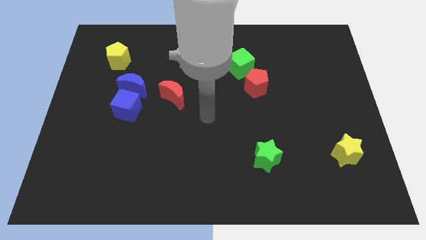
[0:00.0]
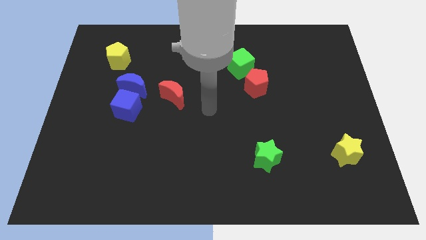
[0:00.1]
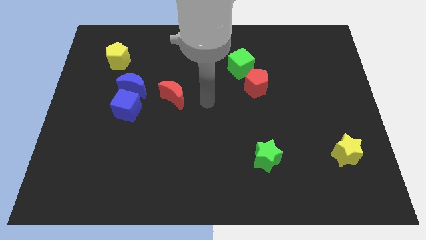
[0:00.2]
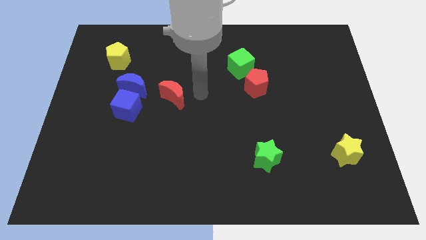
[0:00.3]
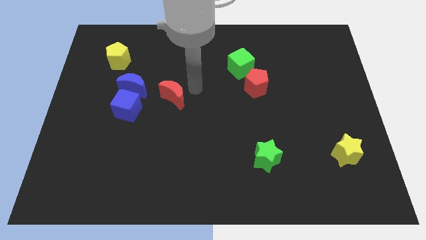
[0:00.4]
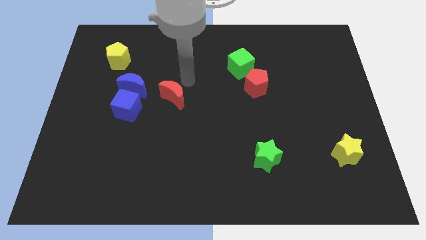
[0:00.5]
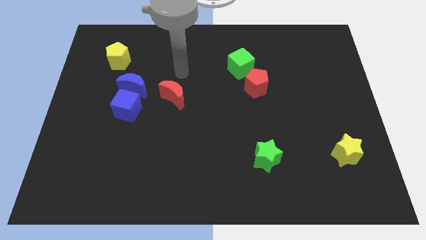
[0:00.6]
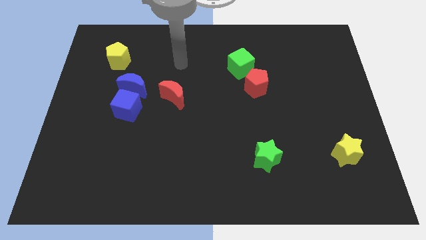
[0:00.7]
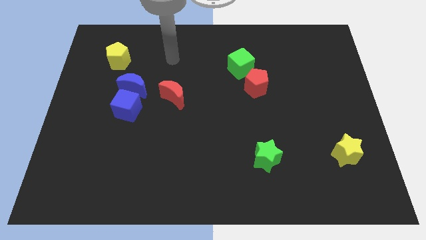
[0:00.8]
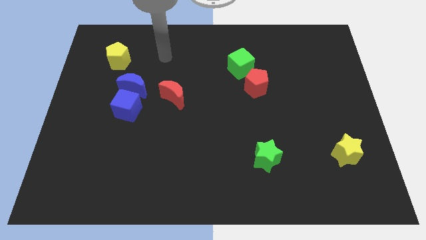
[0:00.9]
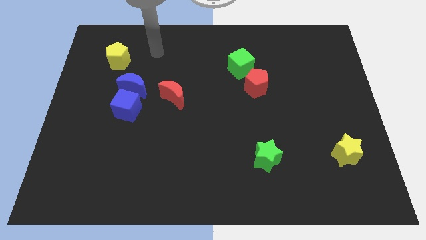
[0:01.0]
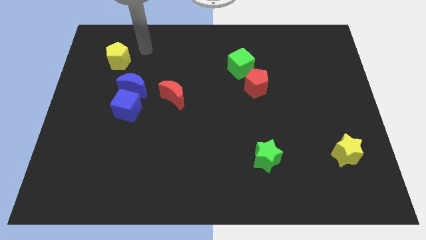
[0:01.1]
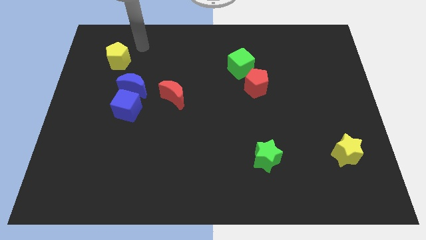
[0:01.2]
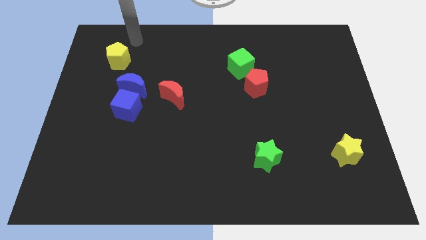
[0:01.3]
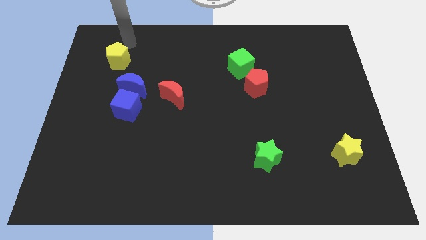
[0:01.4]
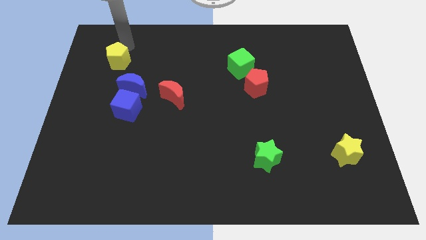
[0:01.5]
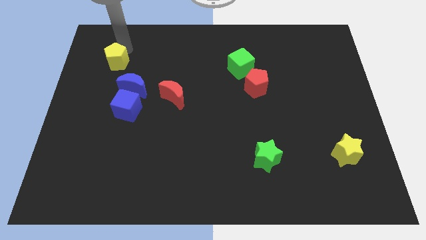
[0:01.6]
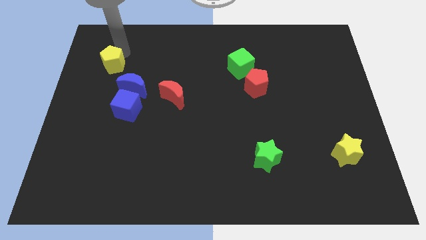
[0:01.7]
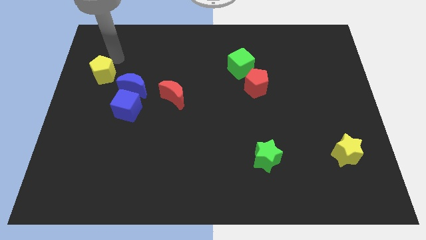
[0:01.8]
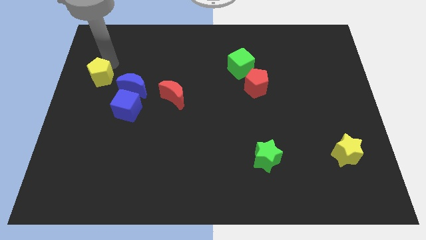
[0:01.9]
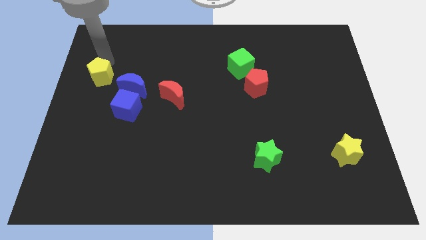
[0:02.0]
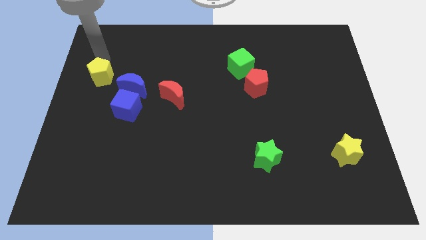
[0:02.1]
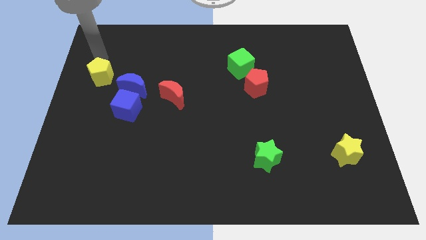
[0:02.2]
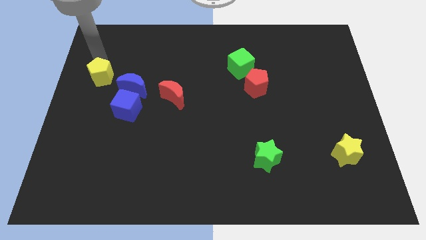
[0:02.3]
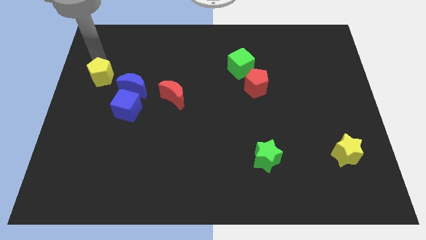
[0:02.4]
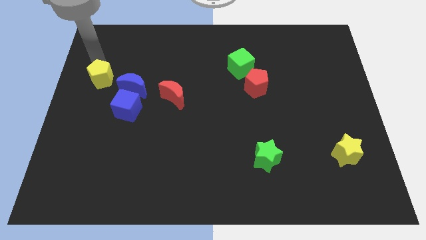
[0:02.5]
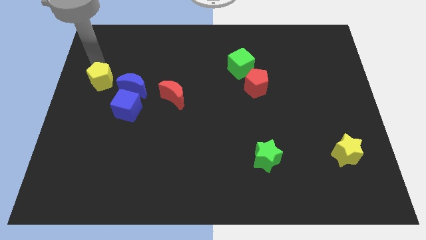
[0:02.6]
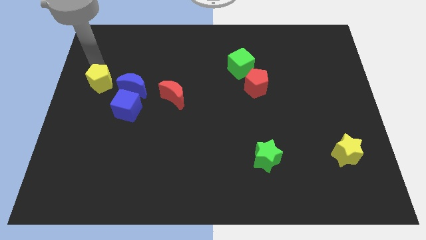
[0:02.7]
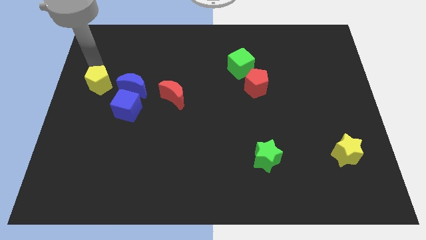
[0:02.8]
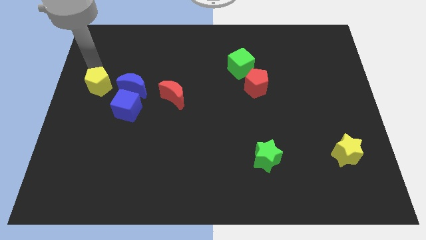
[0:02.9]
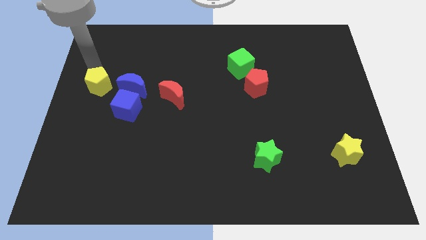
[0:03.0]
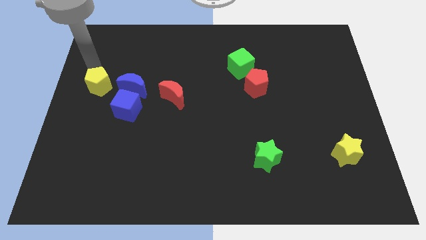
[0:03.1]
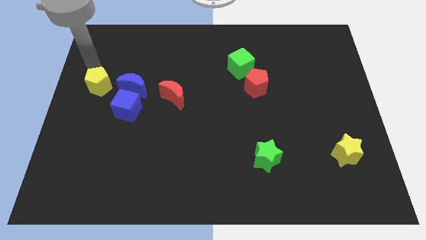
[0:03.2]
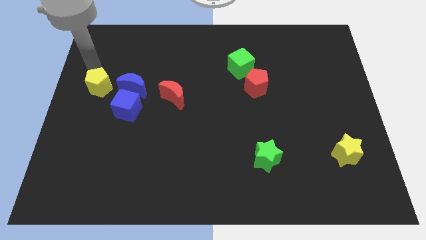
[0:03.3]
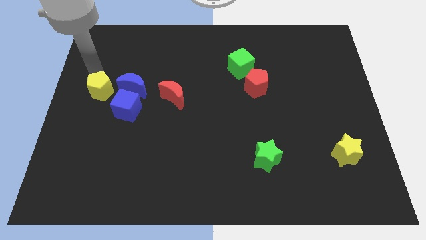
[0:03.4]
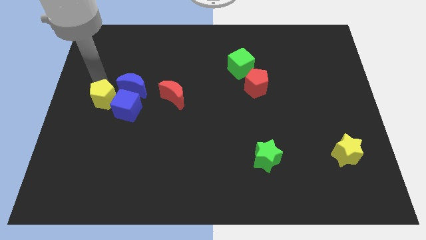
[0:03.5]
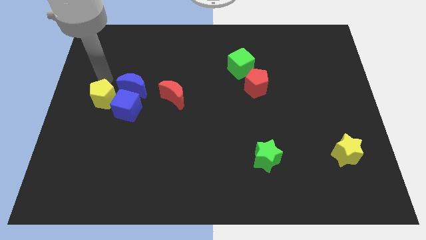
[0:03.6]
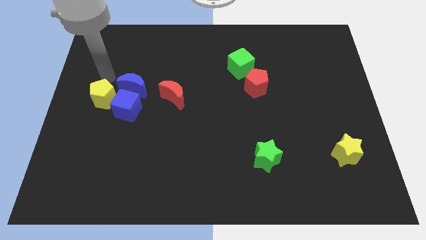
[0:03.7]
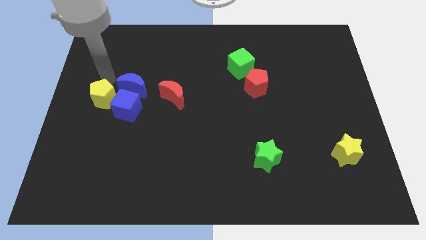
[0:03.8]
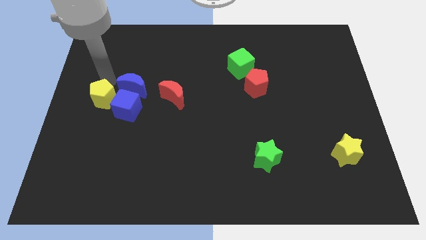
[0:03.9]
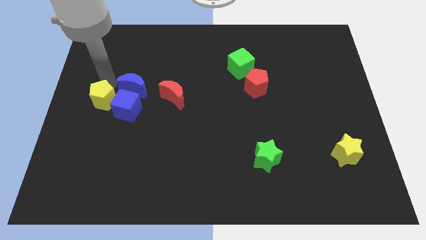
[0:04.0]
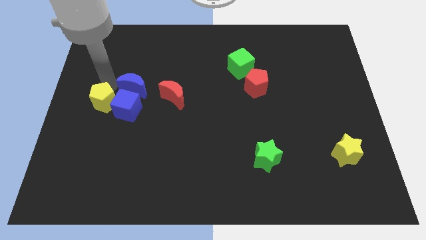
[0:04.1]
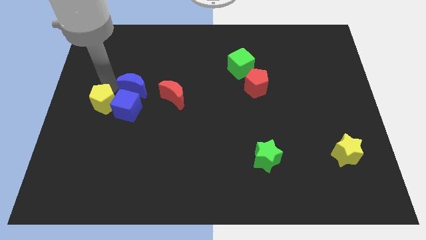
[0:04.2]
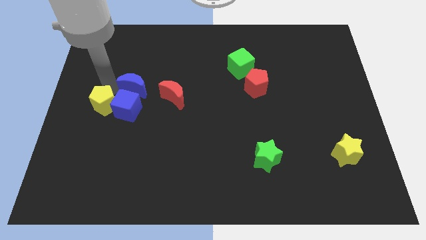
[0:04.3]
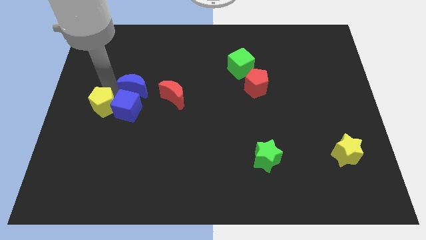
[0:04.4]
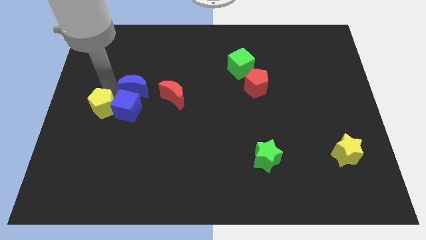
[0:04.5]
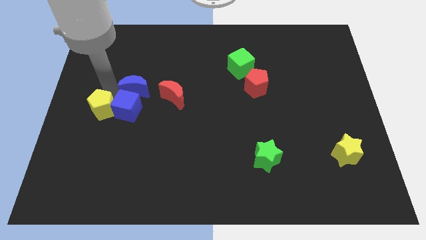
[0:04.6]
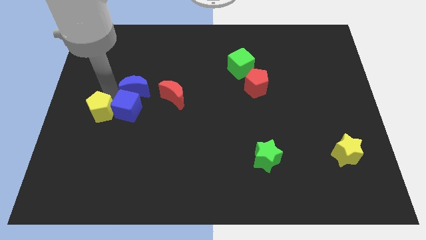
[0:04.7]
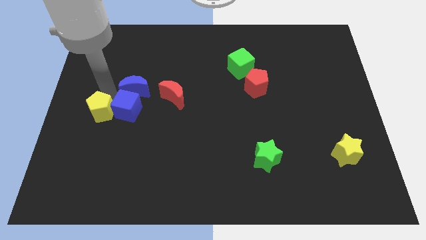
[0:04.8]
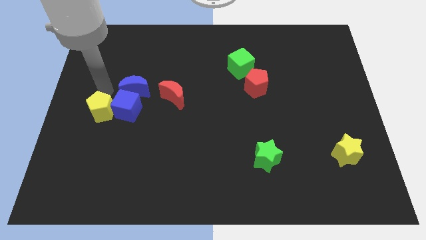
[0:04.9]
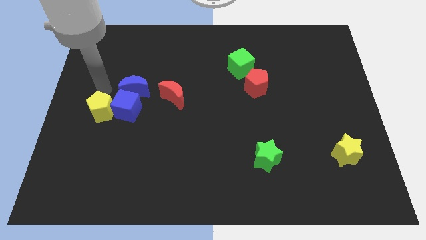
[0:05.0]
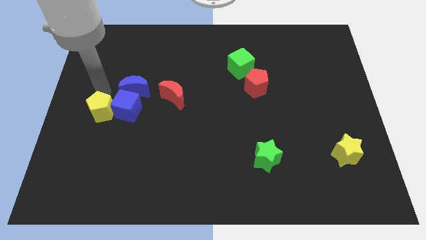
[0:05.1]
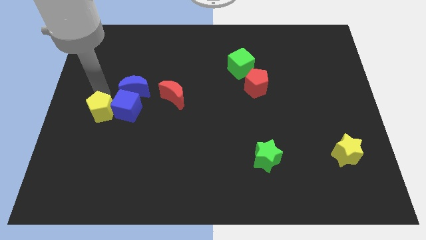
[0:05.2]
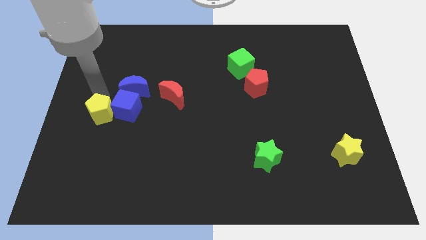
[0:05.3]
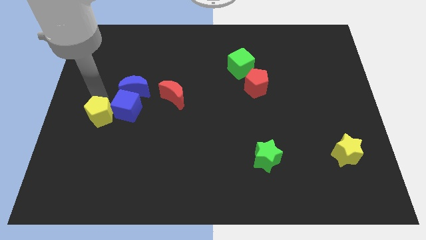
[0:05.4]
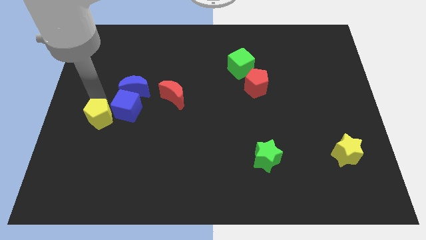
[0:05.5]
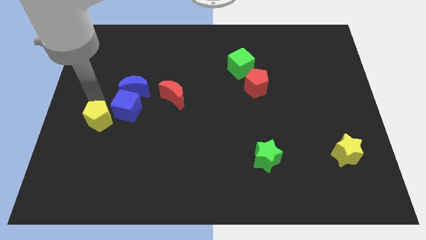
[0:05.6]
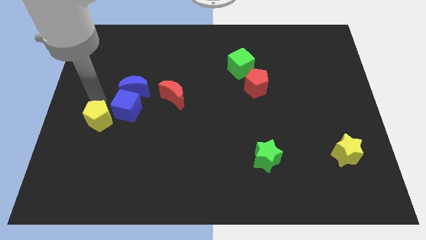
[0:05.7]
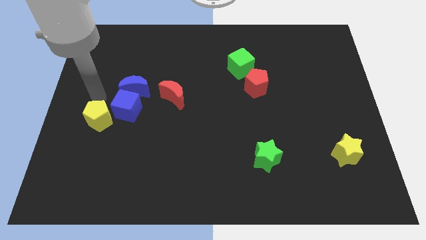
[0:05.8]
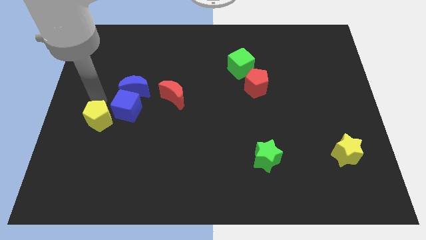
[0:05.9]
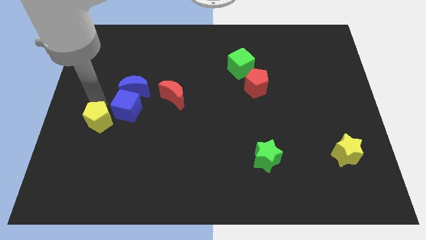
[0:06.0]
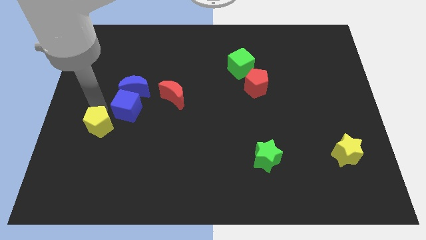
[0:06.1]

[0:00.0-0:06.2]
slide the yellow pentagon down

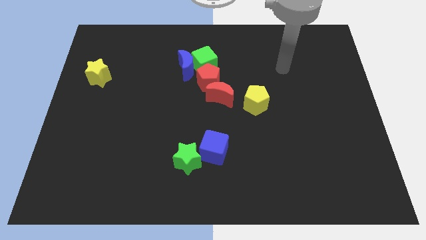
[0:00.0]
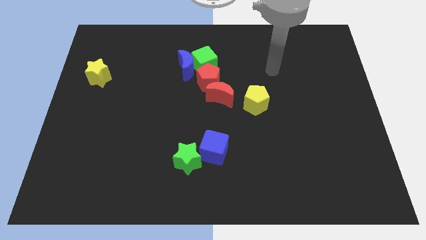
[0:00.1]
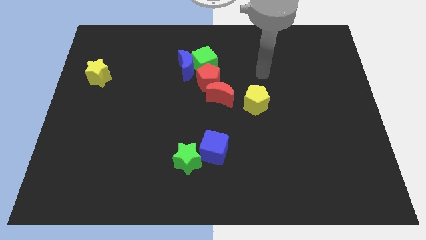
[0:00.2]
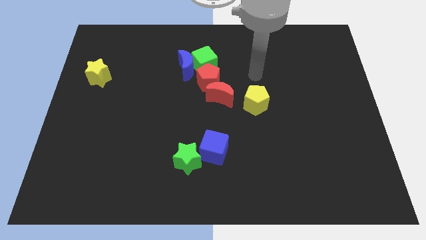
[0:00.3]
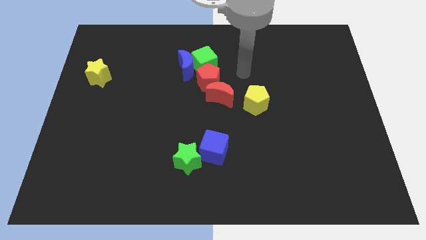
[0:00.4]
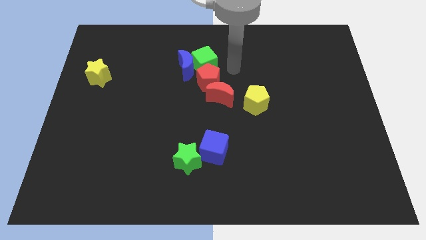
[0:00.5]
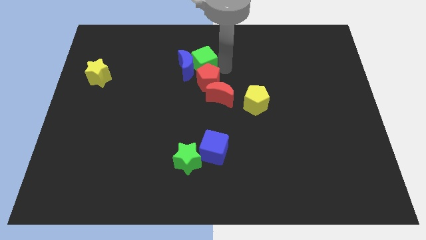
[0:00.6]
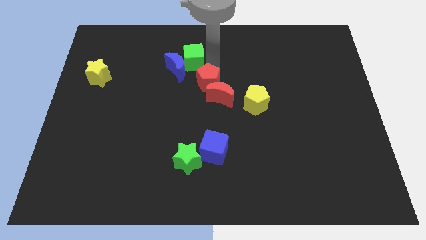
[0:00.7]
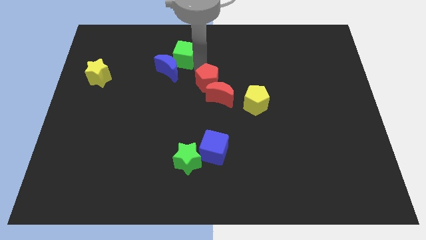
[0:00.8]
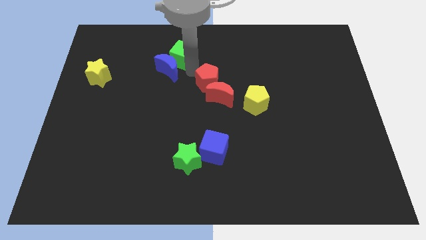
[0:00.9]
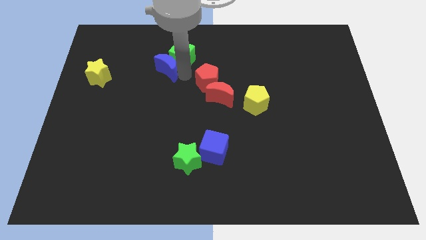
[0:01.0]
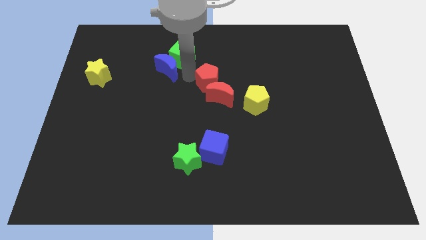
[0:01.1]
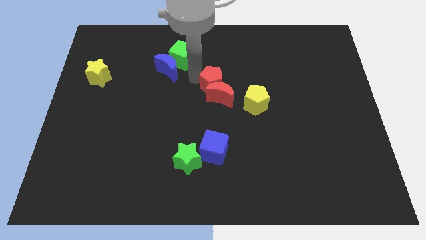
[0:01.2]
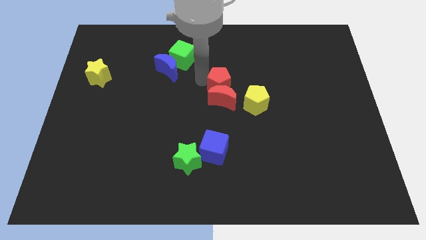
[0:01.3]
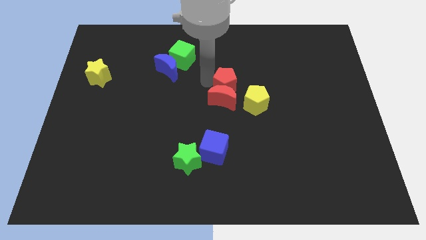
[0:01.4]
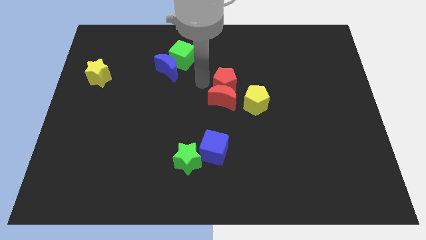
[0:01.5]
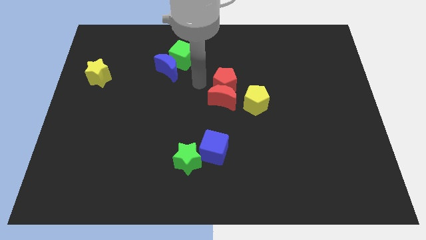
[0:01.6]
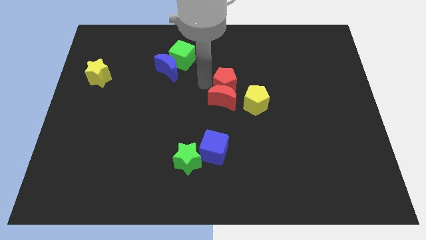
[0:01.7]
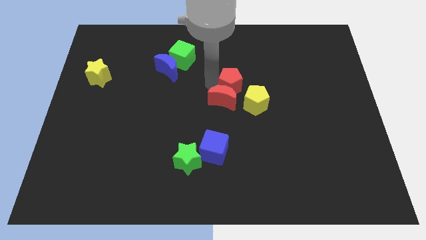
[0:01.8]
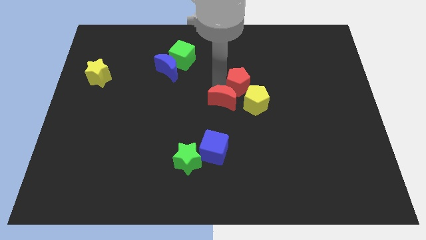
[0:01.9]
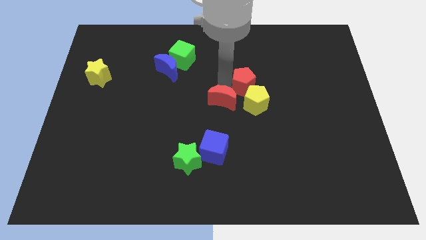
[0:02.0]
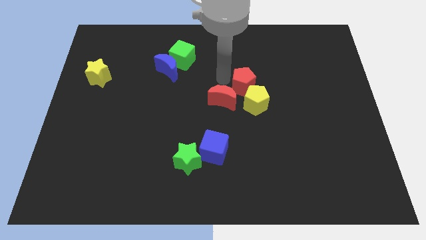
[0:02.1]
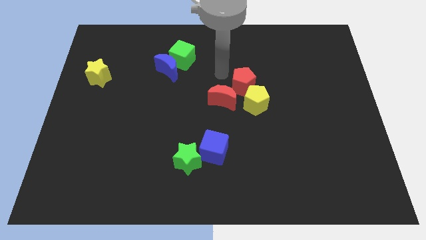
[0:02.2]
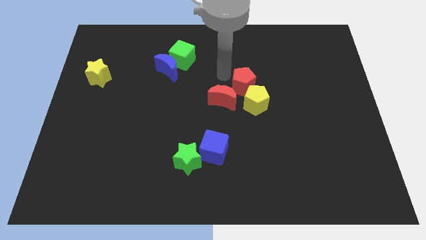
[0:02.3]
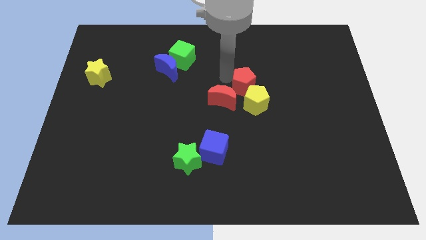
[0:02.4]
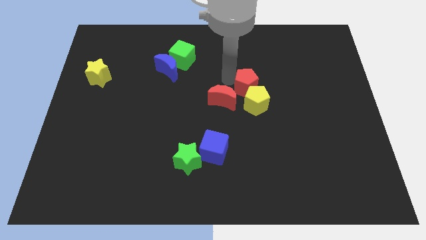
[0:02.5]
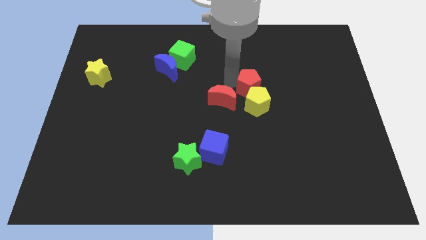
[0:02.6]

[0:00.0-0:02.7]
push the red pentagon down and then right a bit
